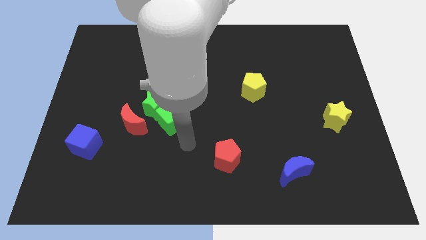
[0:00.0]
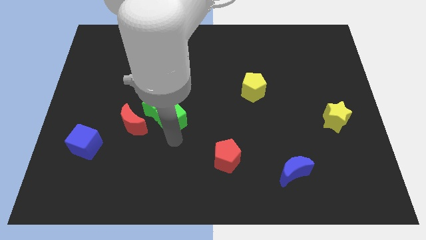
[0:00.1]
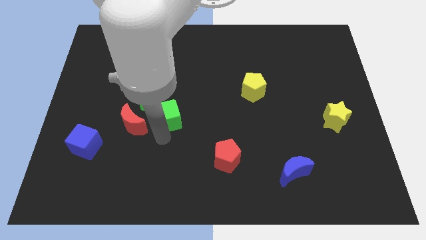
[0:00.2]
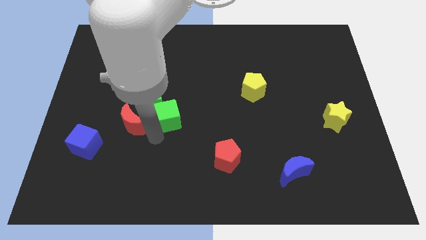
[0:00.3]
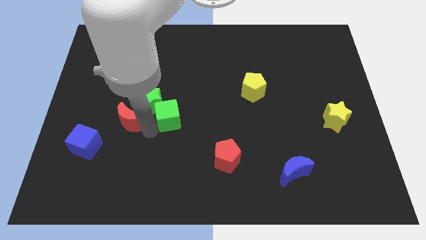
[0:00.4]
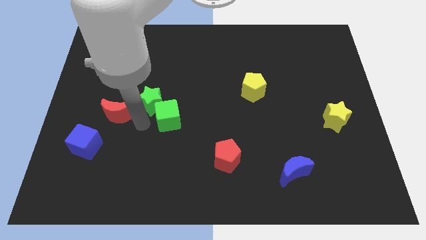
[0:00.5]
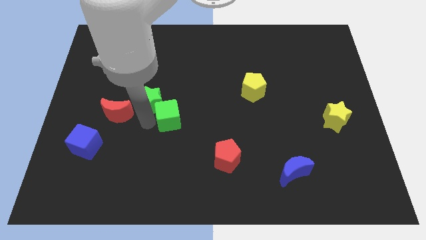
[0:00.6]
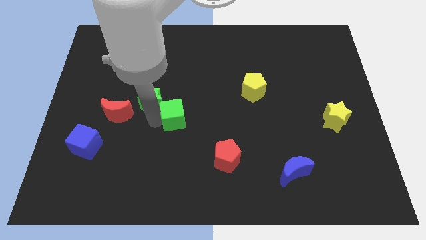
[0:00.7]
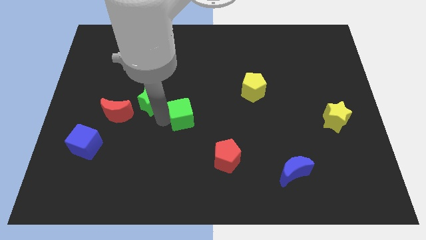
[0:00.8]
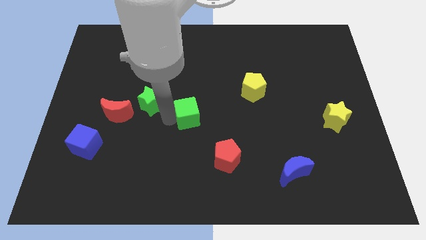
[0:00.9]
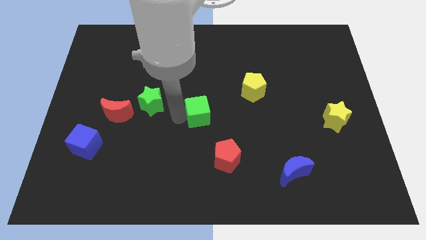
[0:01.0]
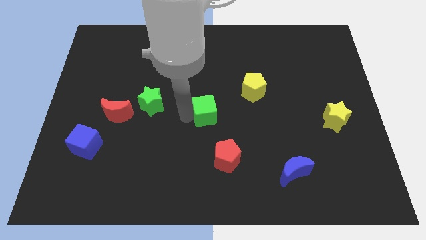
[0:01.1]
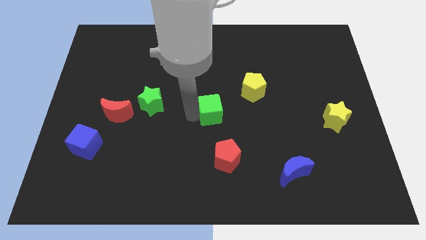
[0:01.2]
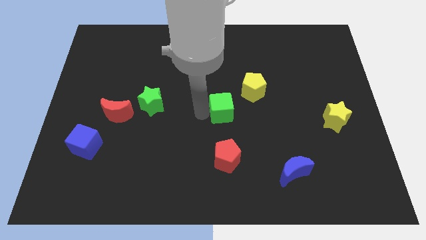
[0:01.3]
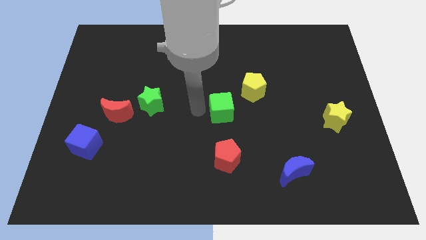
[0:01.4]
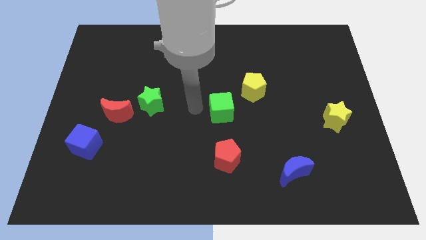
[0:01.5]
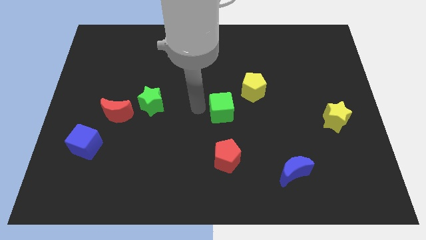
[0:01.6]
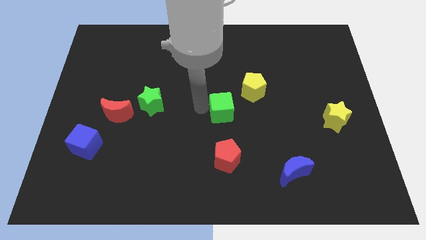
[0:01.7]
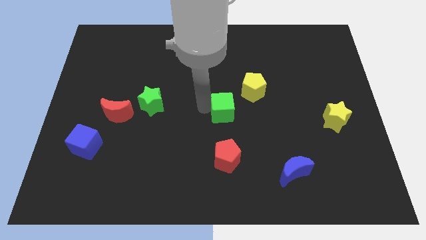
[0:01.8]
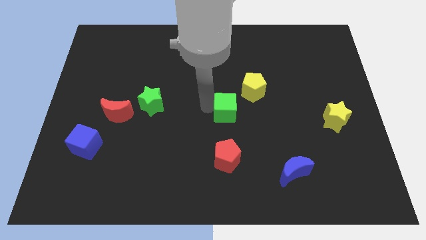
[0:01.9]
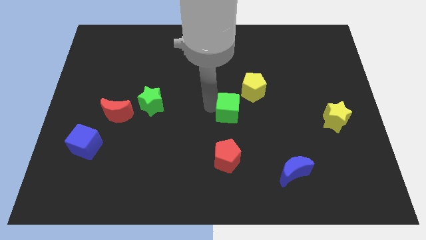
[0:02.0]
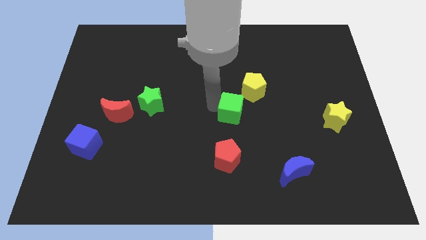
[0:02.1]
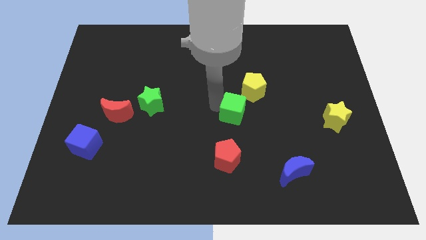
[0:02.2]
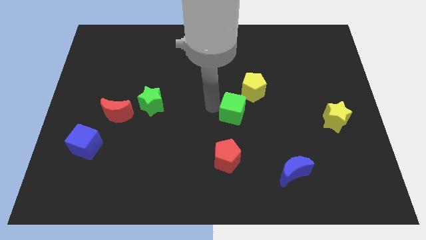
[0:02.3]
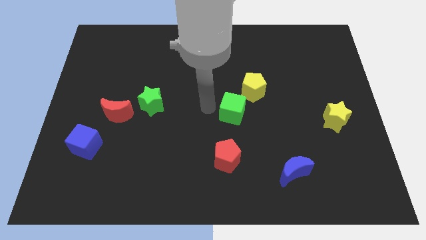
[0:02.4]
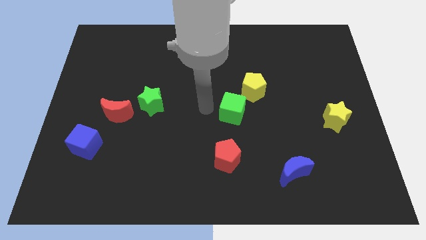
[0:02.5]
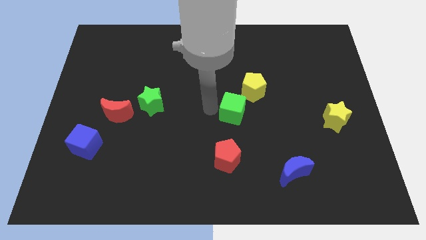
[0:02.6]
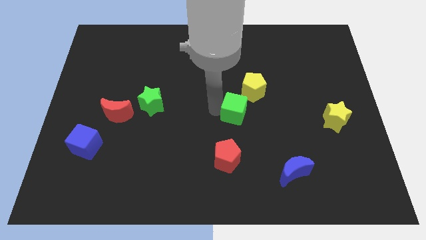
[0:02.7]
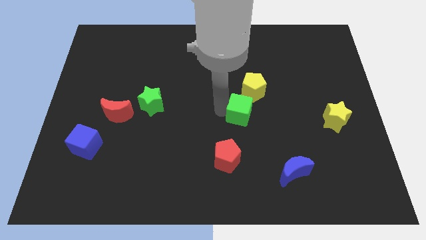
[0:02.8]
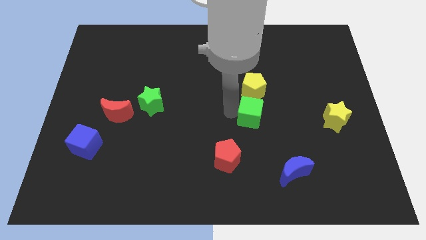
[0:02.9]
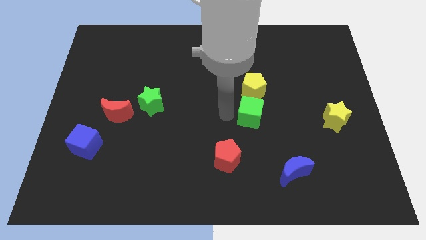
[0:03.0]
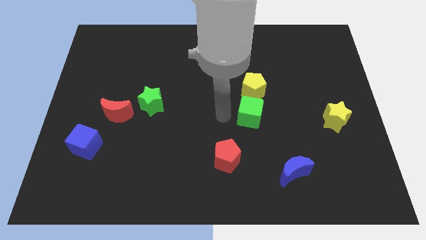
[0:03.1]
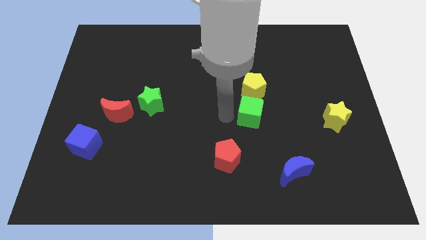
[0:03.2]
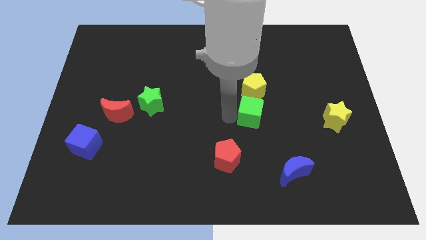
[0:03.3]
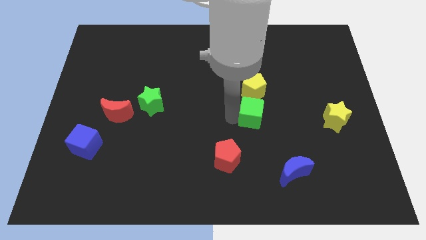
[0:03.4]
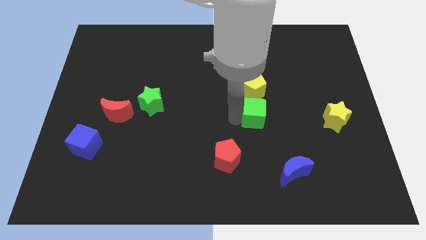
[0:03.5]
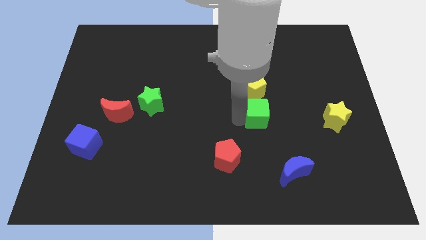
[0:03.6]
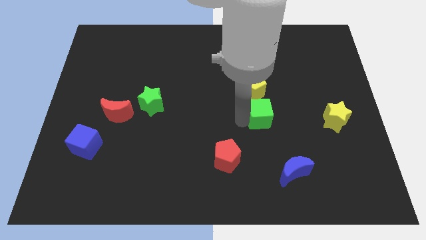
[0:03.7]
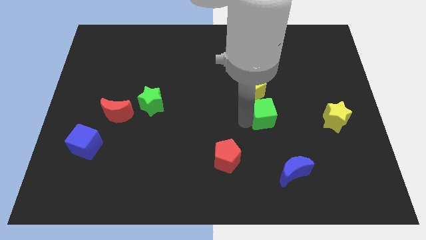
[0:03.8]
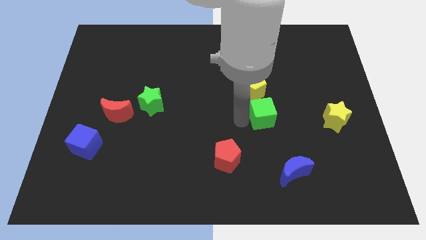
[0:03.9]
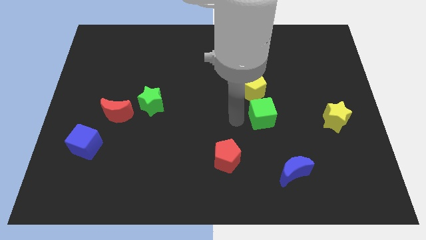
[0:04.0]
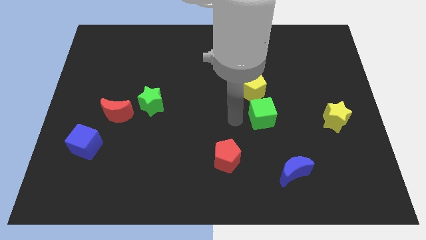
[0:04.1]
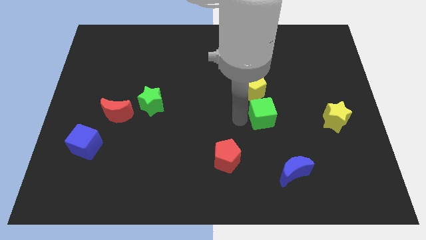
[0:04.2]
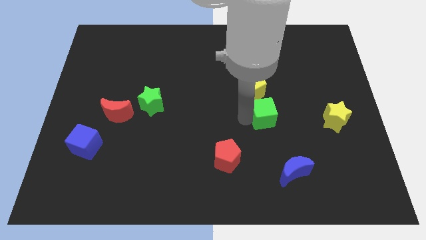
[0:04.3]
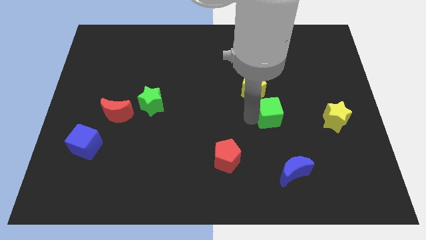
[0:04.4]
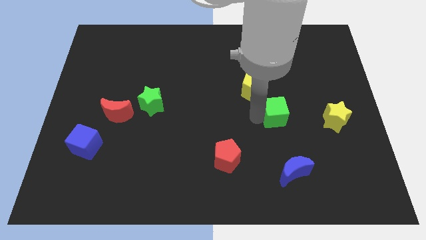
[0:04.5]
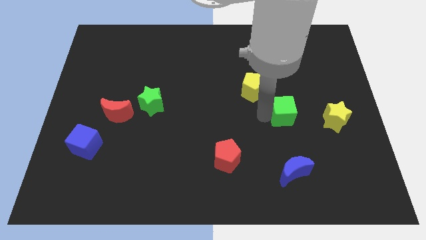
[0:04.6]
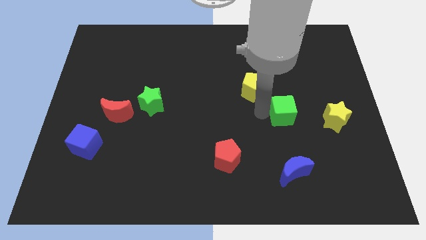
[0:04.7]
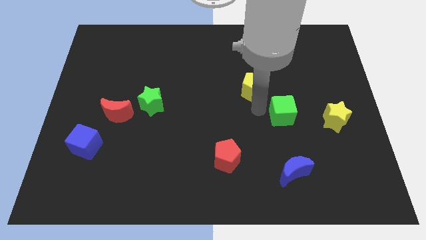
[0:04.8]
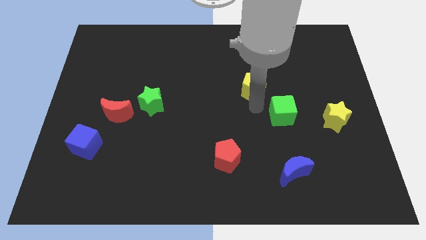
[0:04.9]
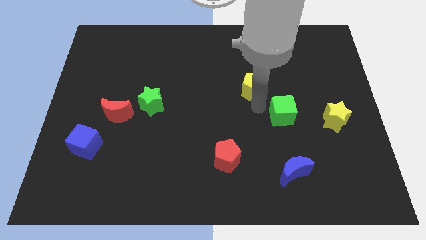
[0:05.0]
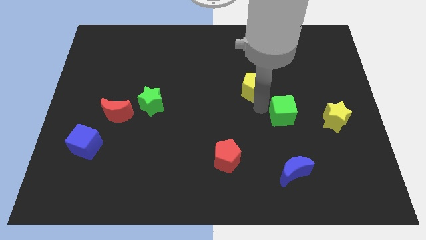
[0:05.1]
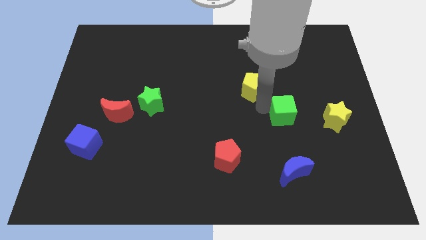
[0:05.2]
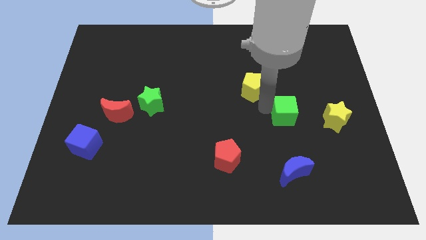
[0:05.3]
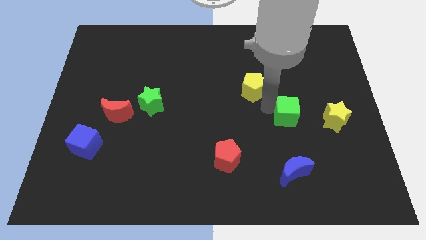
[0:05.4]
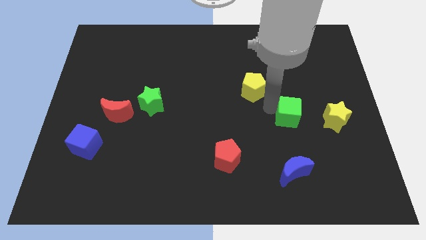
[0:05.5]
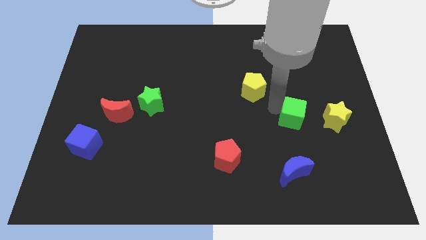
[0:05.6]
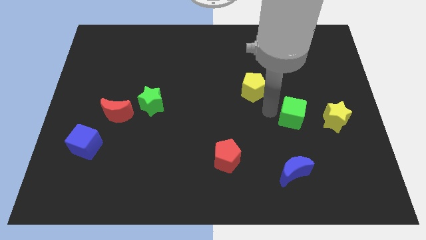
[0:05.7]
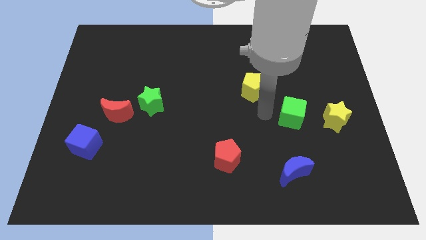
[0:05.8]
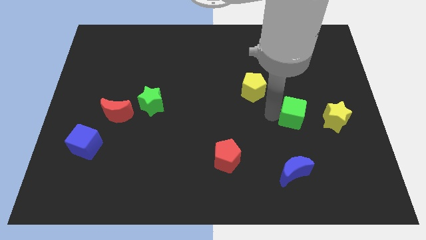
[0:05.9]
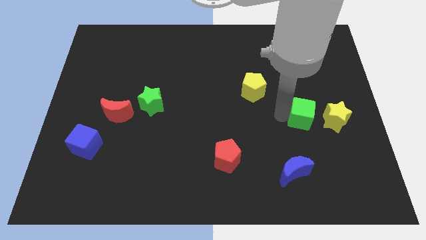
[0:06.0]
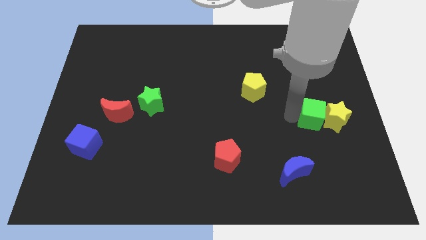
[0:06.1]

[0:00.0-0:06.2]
put the green cube next to the yellow star

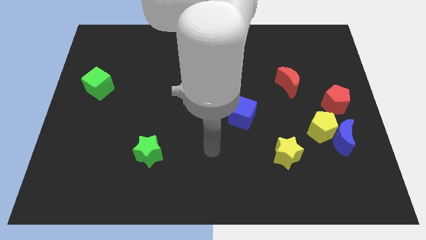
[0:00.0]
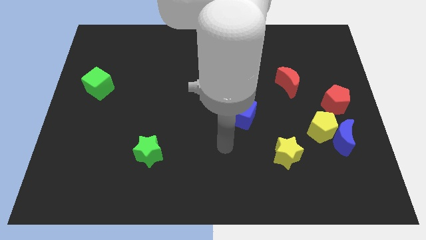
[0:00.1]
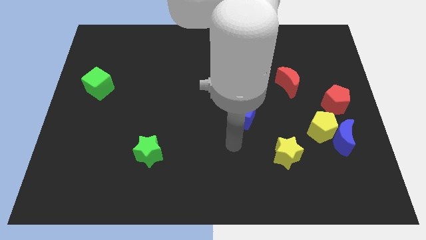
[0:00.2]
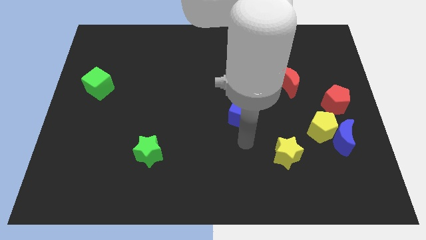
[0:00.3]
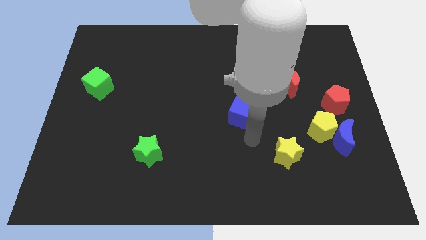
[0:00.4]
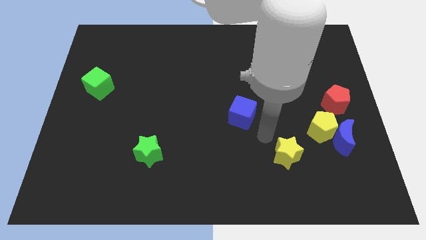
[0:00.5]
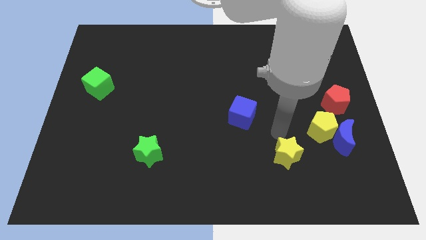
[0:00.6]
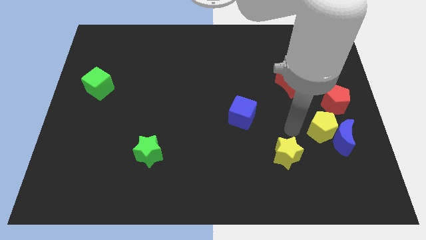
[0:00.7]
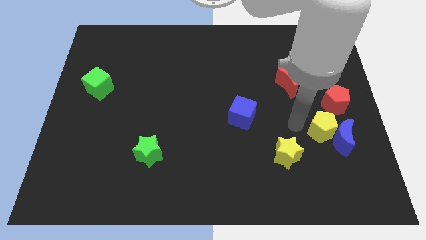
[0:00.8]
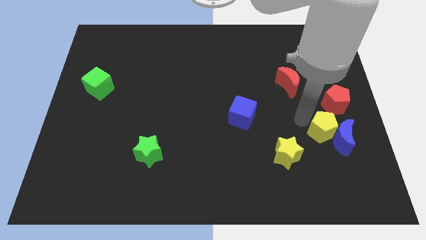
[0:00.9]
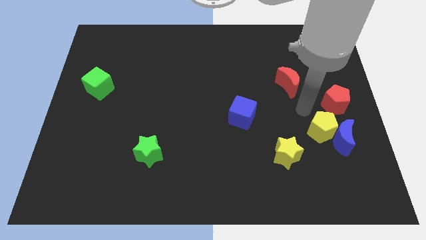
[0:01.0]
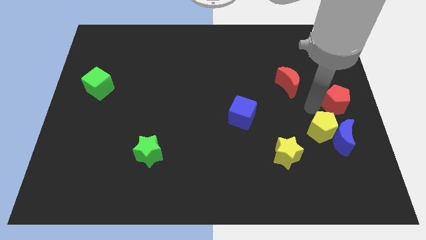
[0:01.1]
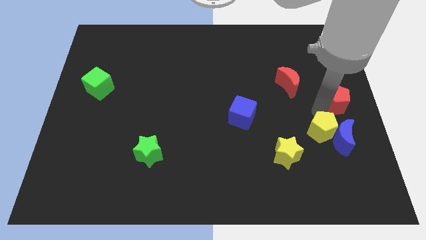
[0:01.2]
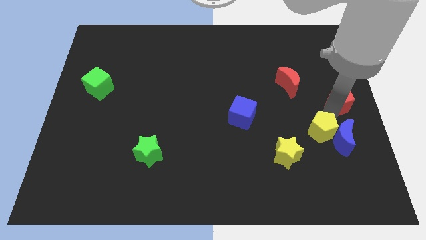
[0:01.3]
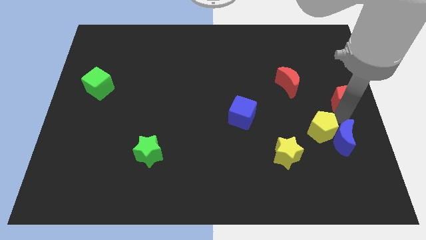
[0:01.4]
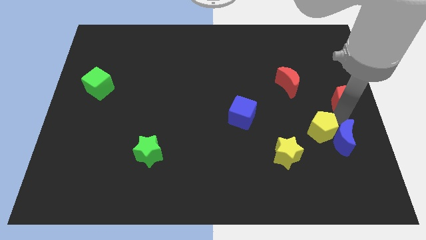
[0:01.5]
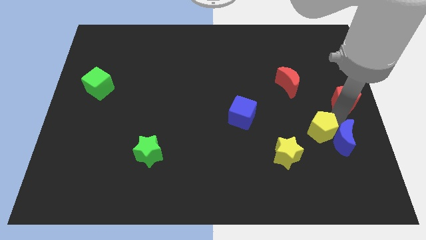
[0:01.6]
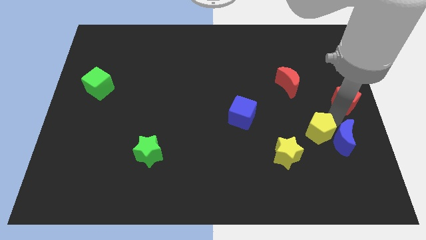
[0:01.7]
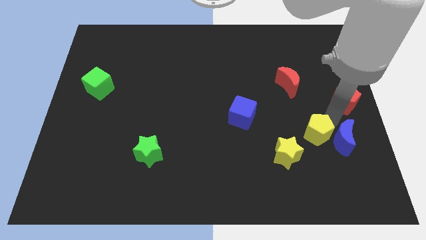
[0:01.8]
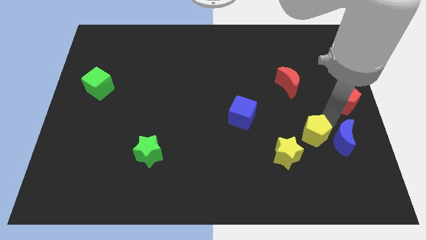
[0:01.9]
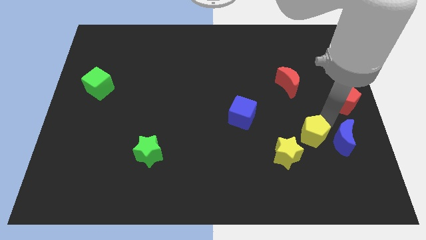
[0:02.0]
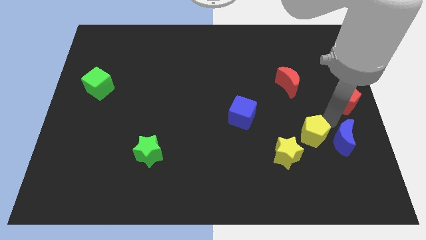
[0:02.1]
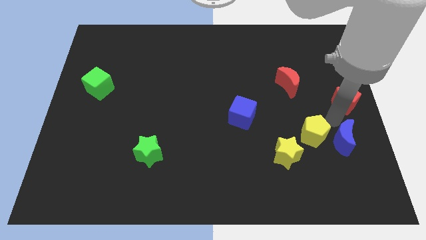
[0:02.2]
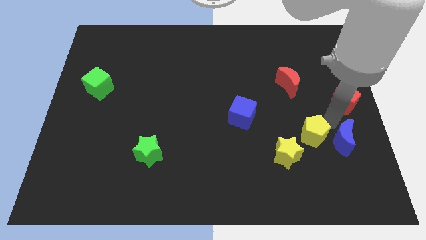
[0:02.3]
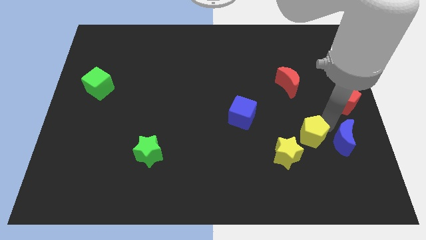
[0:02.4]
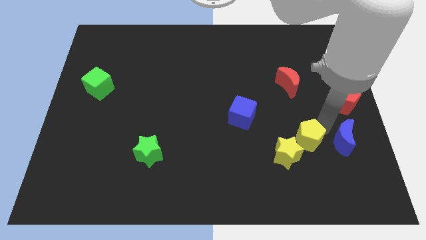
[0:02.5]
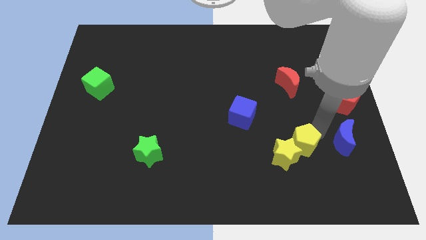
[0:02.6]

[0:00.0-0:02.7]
put the yellow pentagon next to the yellow star
